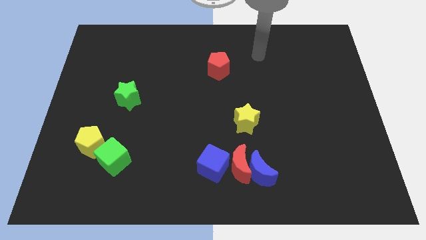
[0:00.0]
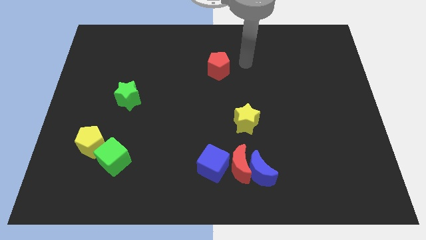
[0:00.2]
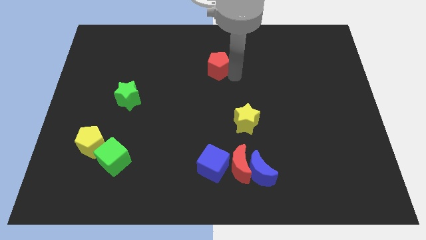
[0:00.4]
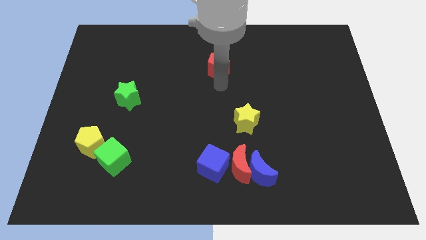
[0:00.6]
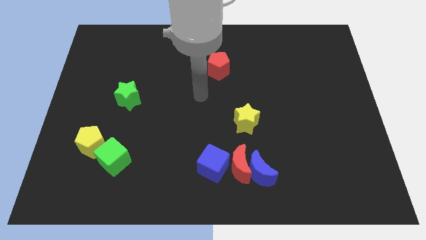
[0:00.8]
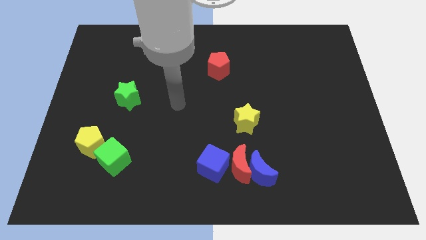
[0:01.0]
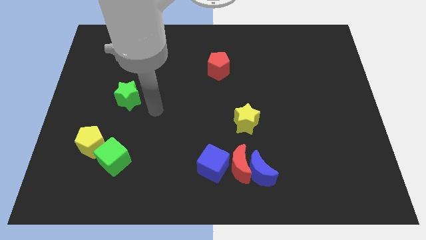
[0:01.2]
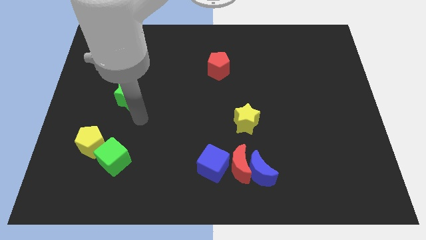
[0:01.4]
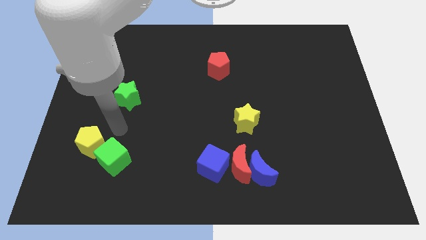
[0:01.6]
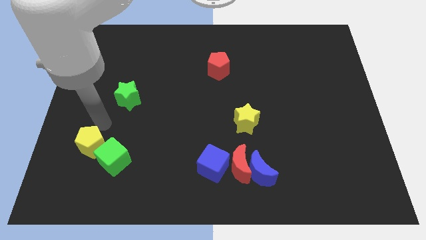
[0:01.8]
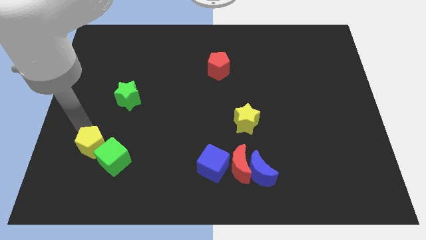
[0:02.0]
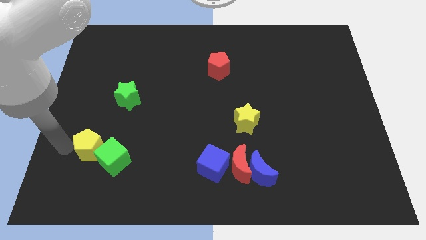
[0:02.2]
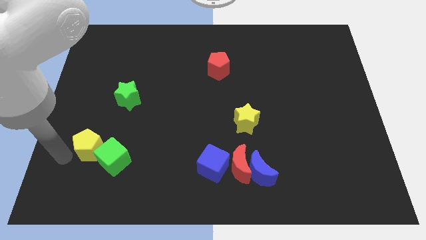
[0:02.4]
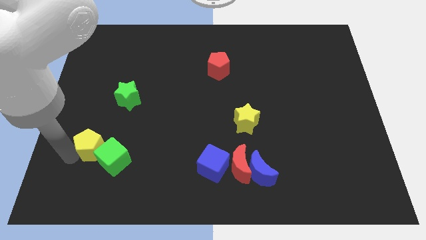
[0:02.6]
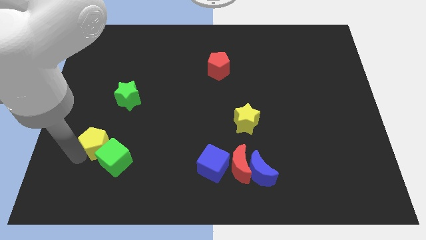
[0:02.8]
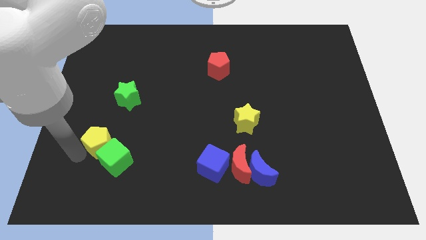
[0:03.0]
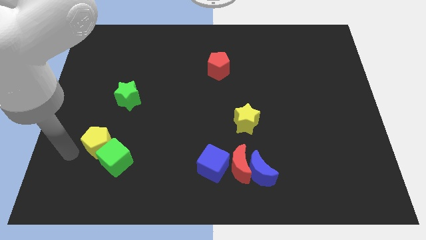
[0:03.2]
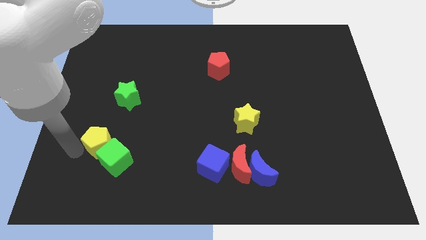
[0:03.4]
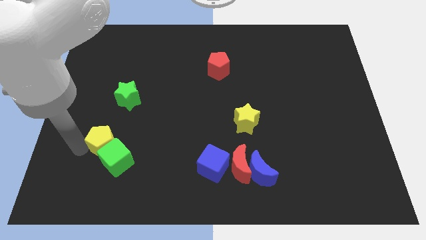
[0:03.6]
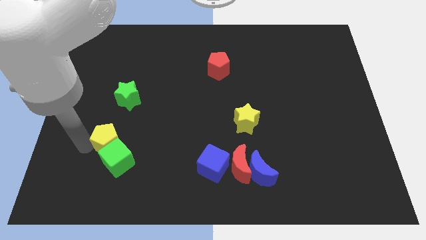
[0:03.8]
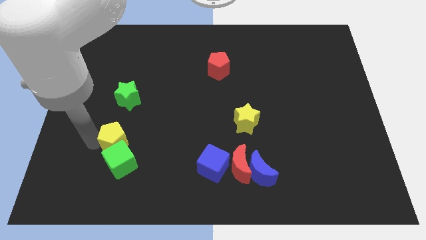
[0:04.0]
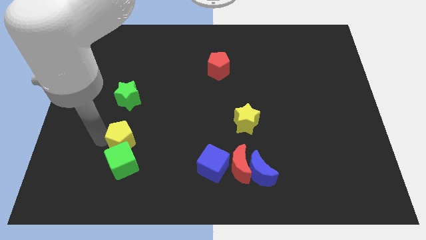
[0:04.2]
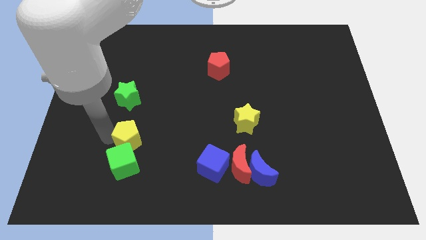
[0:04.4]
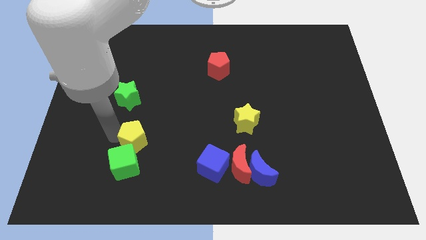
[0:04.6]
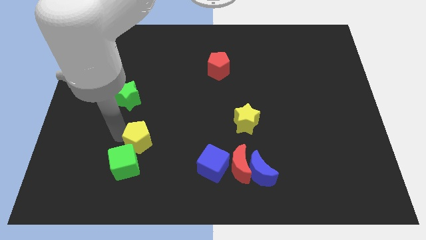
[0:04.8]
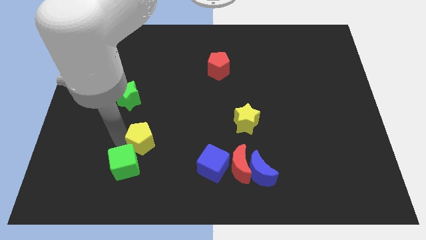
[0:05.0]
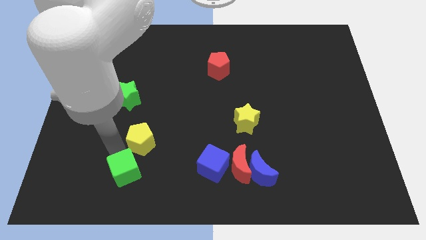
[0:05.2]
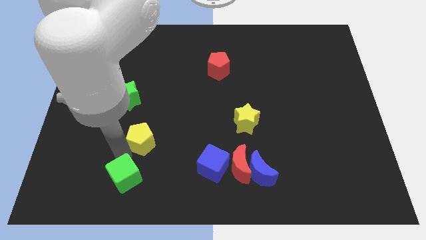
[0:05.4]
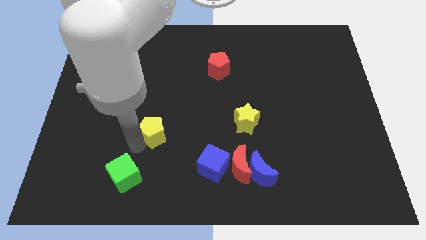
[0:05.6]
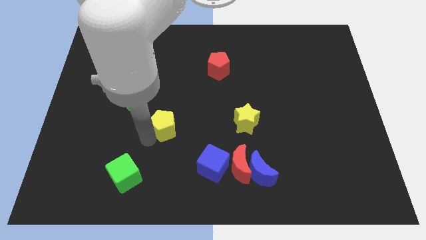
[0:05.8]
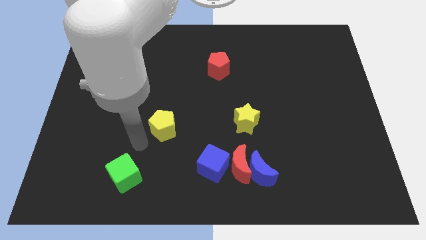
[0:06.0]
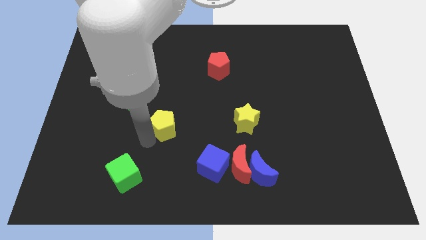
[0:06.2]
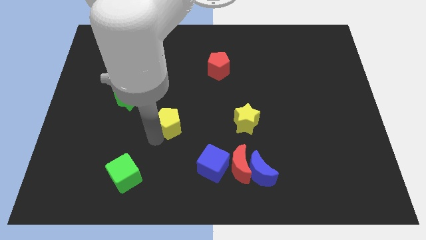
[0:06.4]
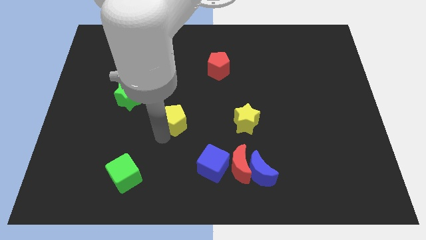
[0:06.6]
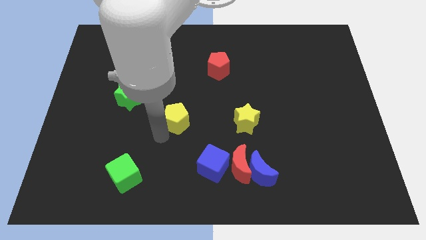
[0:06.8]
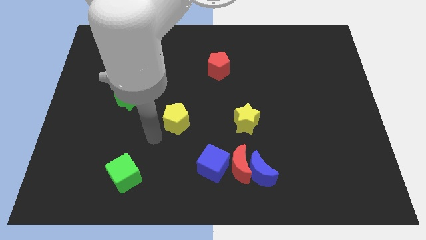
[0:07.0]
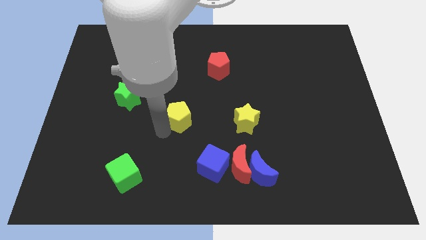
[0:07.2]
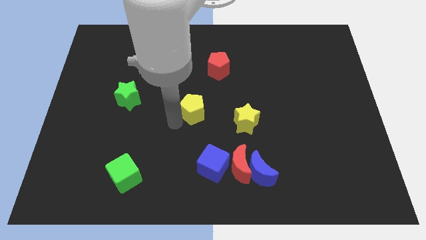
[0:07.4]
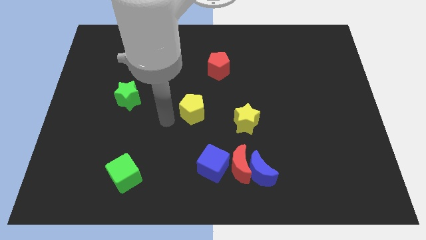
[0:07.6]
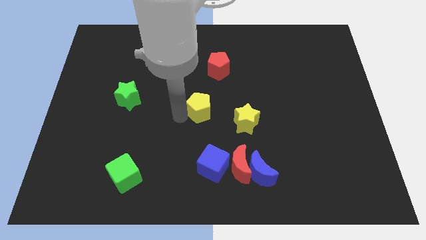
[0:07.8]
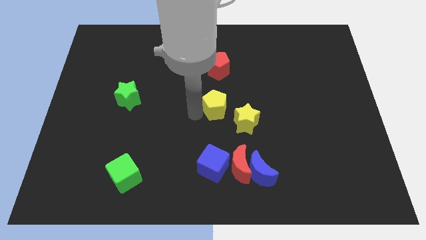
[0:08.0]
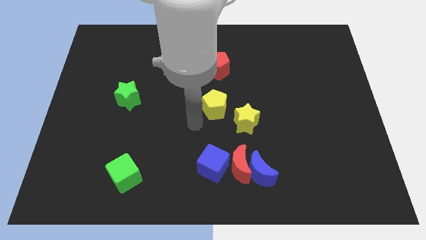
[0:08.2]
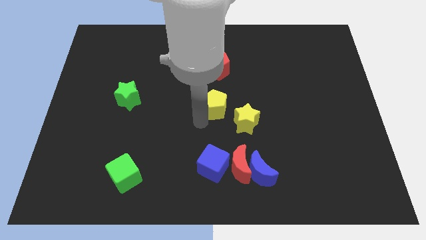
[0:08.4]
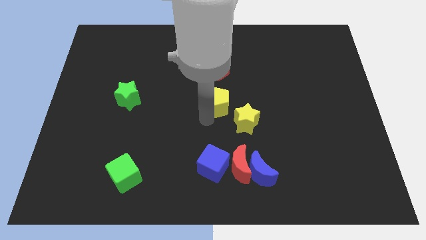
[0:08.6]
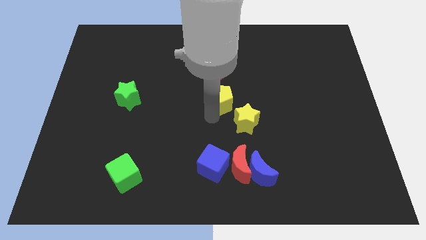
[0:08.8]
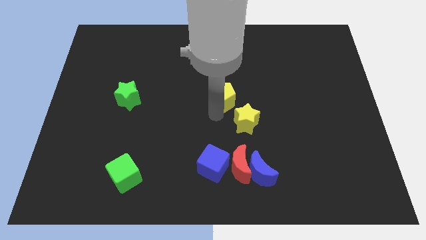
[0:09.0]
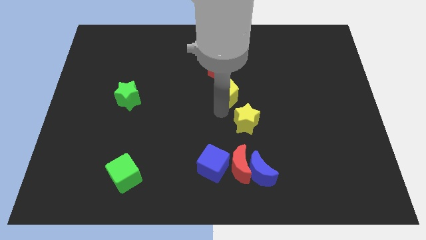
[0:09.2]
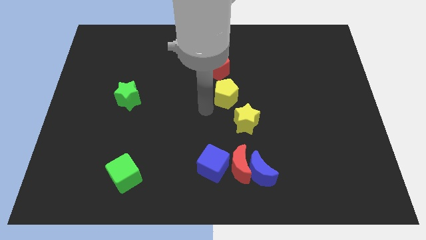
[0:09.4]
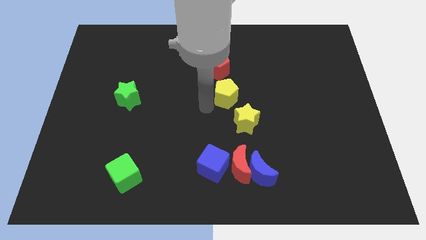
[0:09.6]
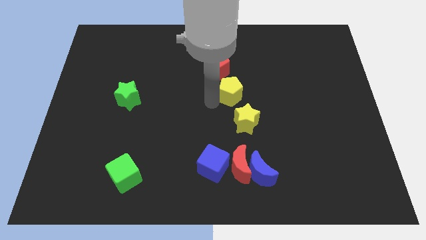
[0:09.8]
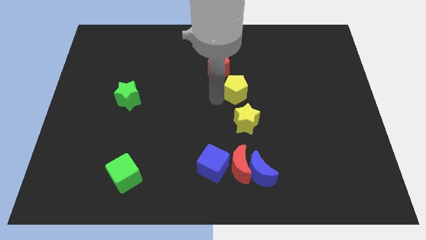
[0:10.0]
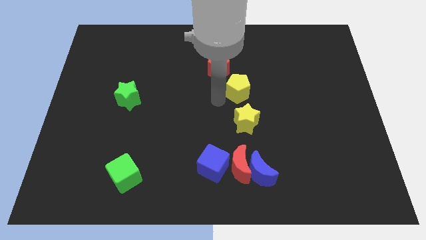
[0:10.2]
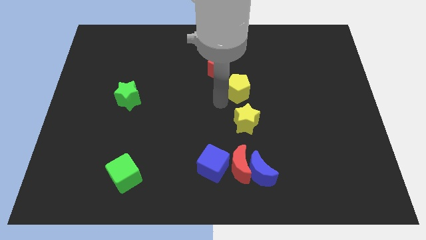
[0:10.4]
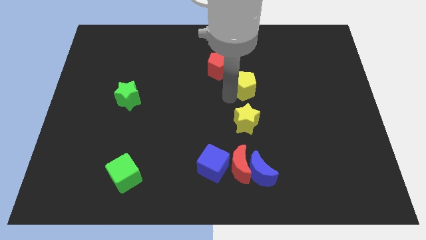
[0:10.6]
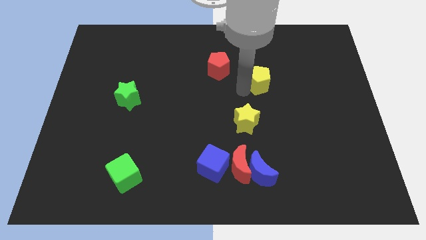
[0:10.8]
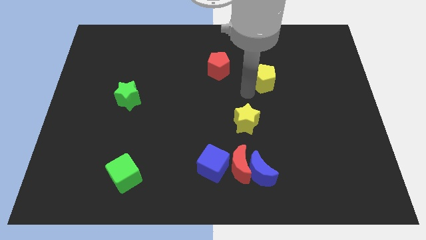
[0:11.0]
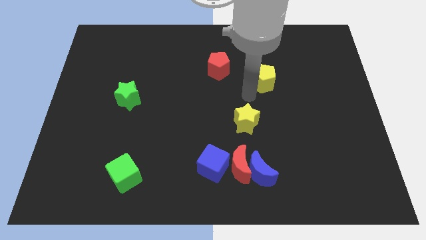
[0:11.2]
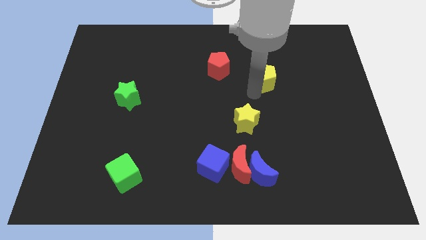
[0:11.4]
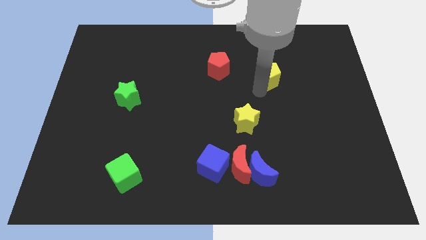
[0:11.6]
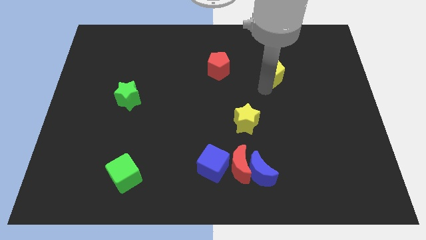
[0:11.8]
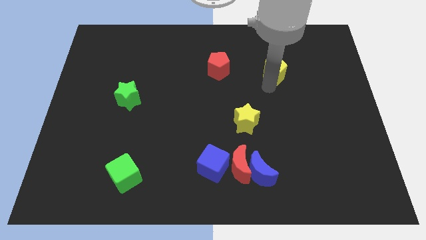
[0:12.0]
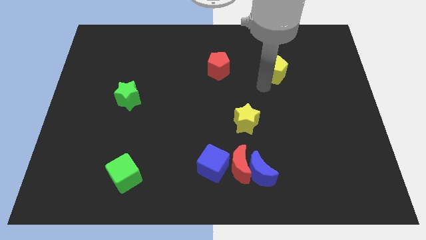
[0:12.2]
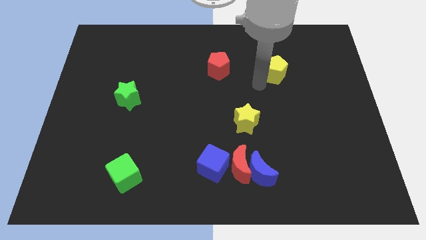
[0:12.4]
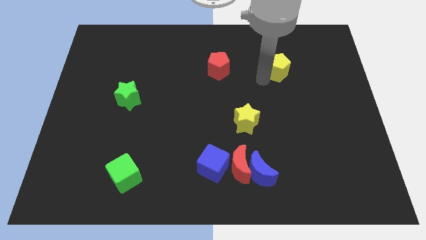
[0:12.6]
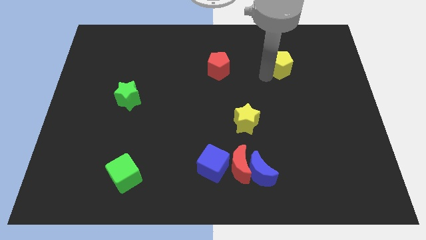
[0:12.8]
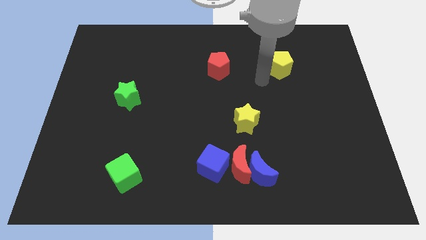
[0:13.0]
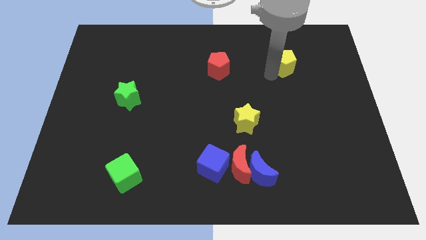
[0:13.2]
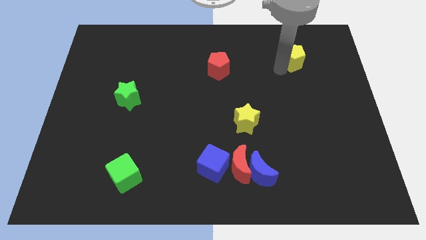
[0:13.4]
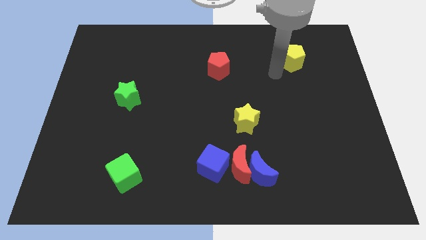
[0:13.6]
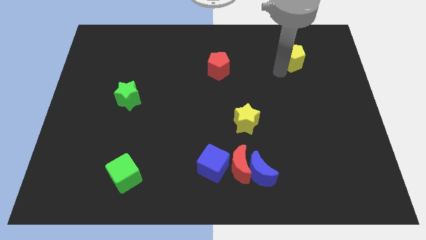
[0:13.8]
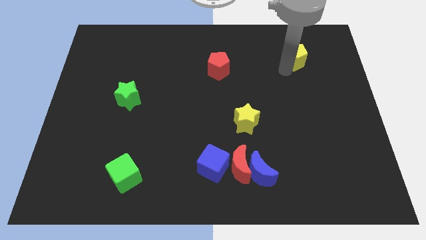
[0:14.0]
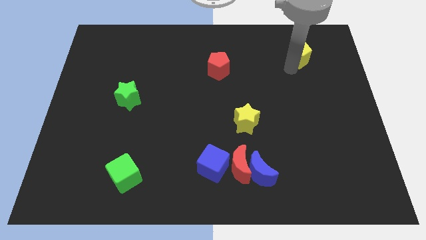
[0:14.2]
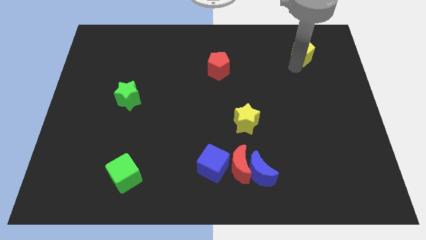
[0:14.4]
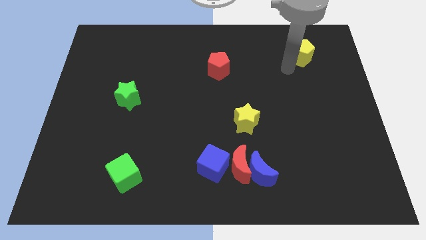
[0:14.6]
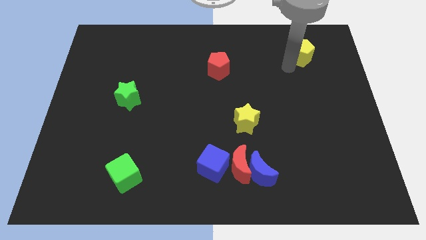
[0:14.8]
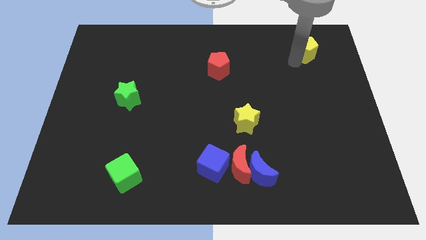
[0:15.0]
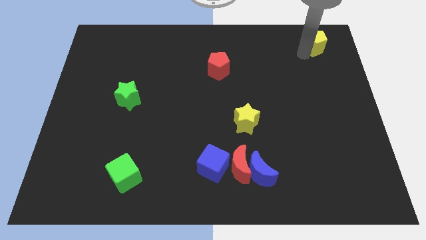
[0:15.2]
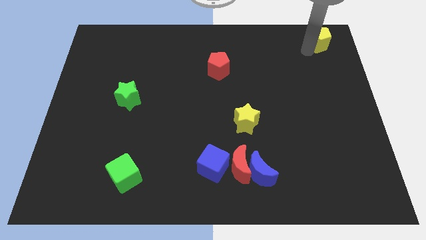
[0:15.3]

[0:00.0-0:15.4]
push the yellow pentagon to the upper right corner
